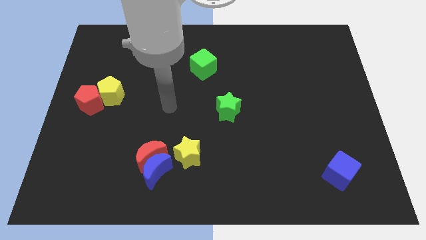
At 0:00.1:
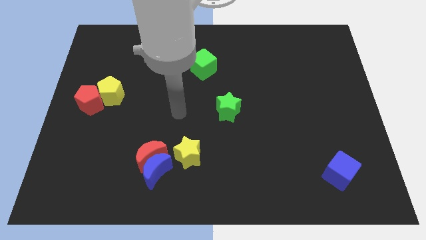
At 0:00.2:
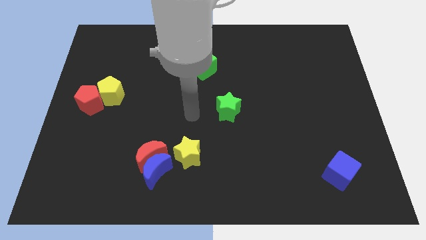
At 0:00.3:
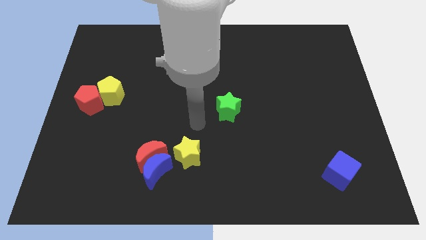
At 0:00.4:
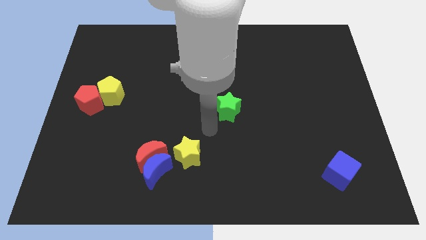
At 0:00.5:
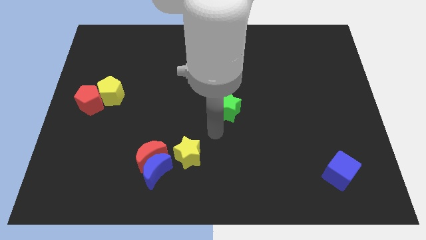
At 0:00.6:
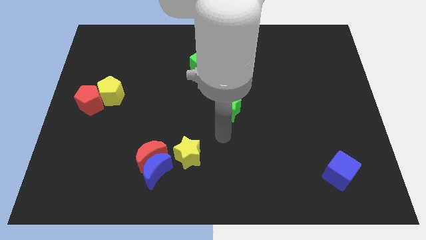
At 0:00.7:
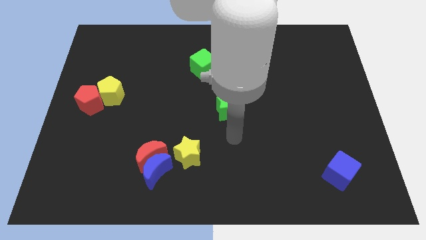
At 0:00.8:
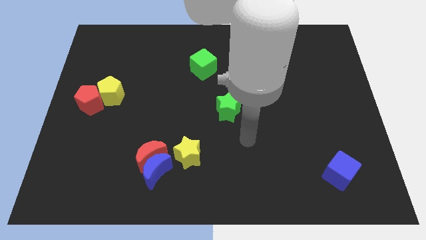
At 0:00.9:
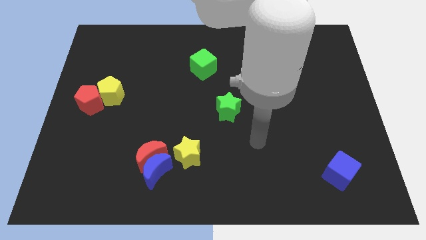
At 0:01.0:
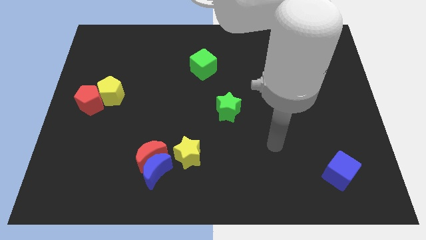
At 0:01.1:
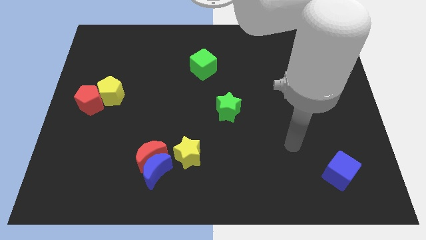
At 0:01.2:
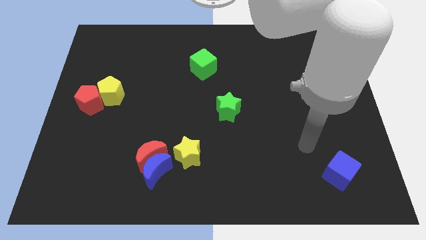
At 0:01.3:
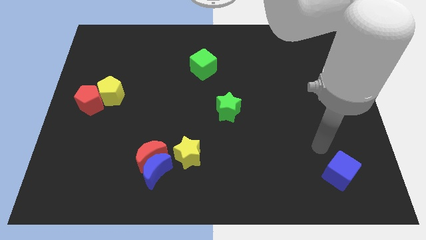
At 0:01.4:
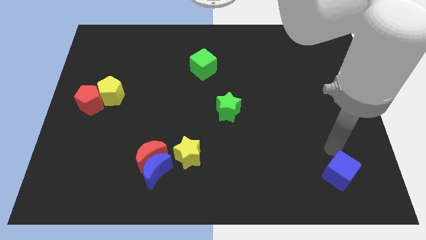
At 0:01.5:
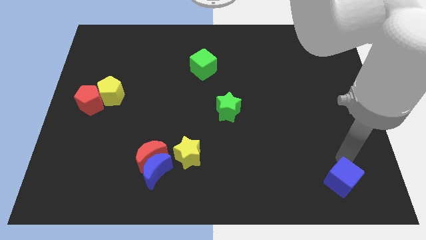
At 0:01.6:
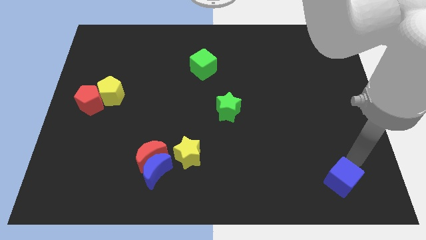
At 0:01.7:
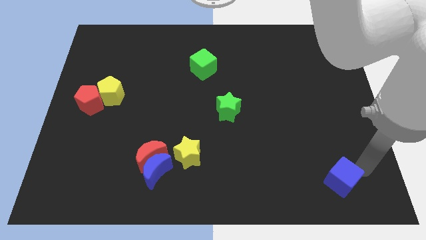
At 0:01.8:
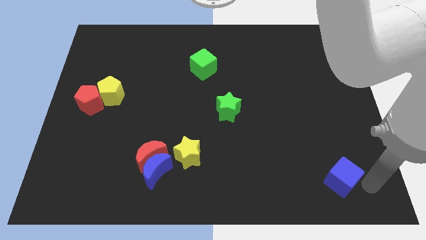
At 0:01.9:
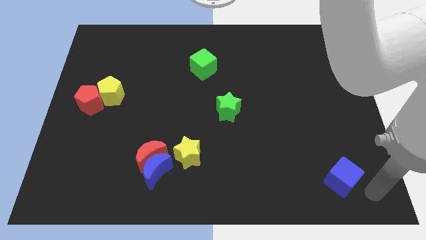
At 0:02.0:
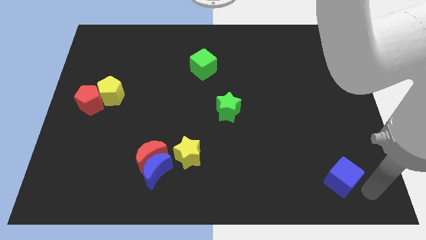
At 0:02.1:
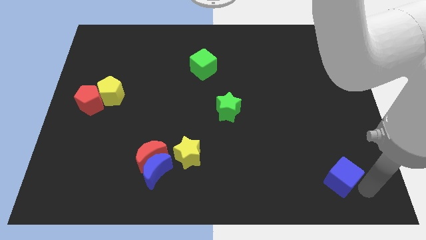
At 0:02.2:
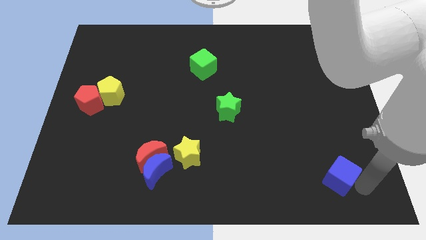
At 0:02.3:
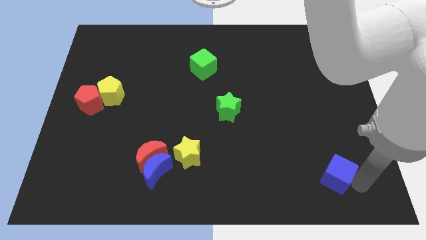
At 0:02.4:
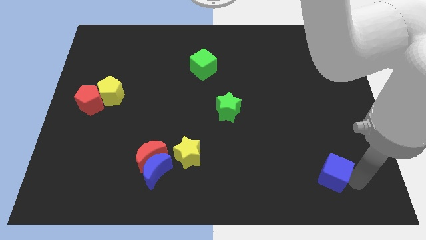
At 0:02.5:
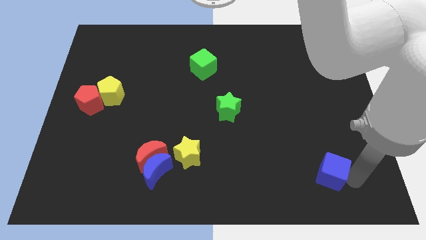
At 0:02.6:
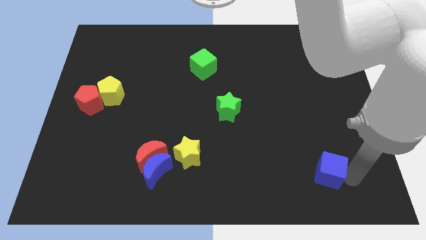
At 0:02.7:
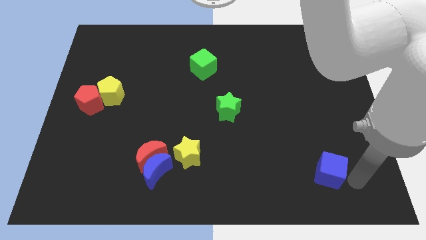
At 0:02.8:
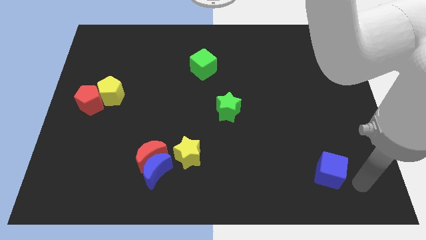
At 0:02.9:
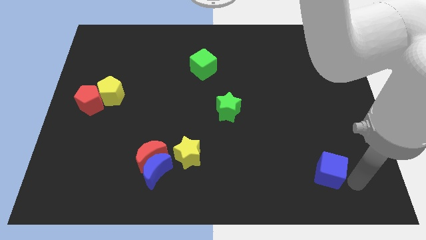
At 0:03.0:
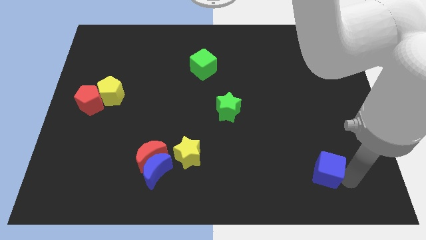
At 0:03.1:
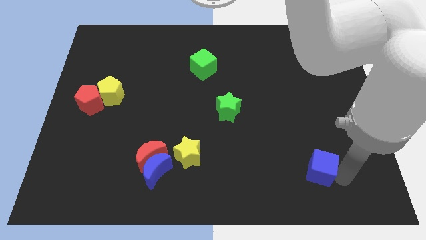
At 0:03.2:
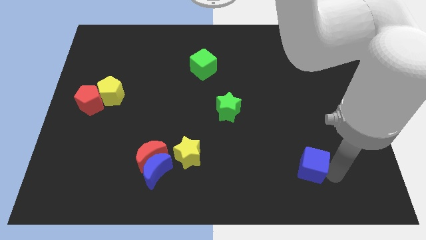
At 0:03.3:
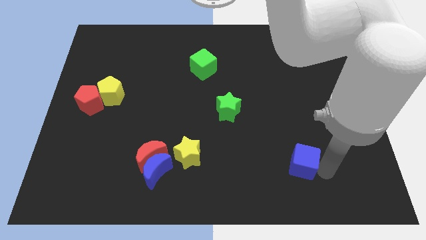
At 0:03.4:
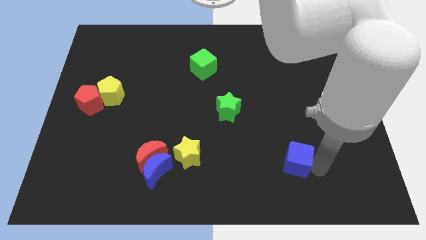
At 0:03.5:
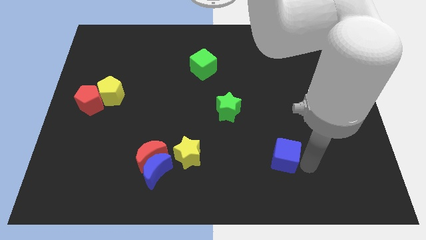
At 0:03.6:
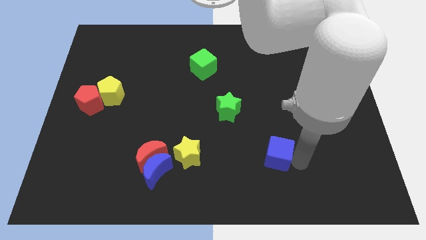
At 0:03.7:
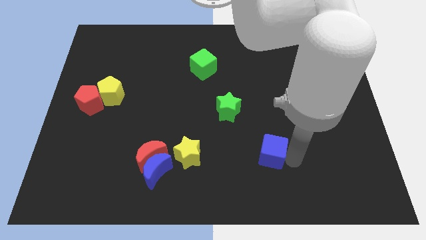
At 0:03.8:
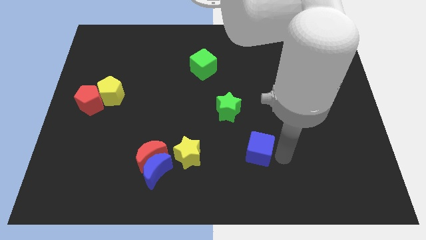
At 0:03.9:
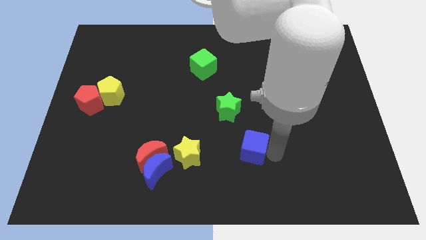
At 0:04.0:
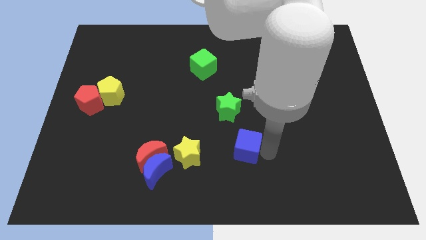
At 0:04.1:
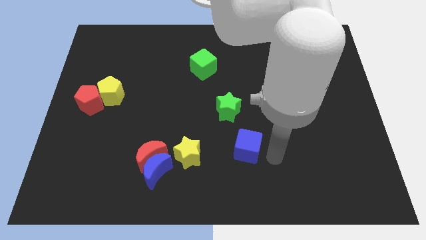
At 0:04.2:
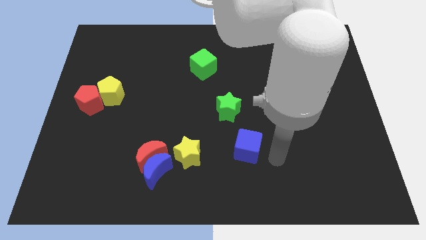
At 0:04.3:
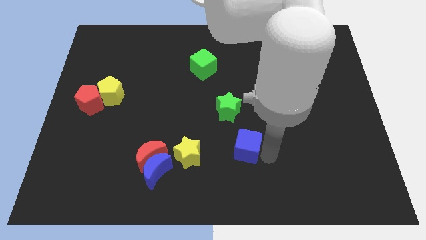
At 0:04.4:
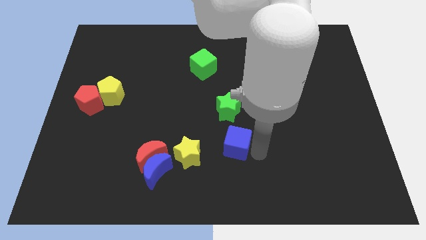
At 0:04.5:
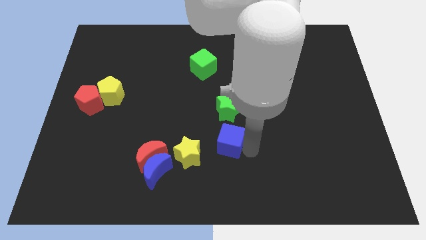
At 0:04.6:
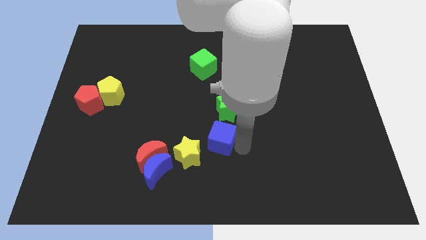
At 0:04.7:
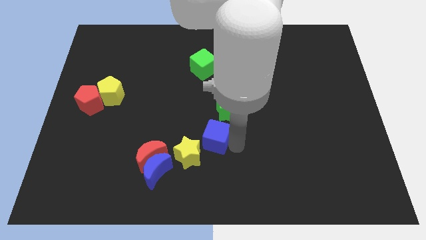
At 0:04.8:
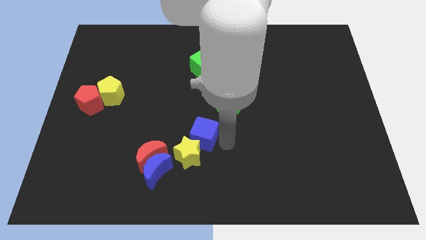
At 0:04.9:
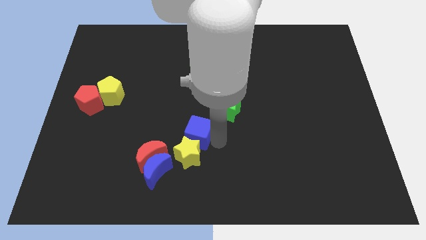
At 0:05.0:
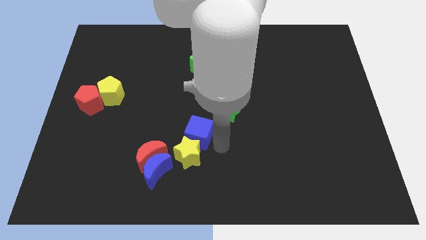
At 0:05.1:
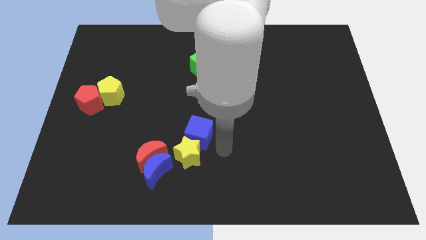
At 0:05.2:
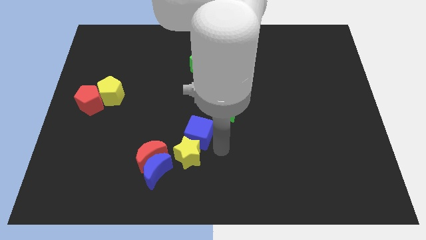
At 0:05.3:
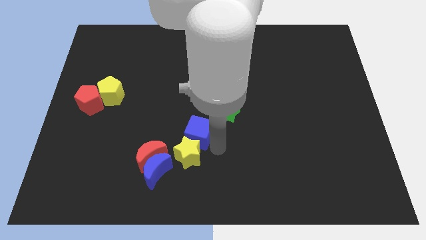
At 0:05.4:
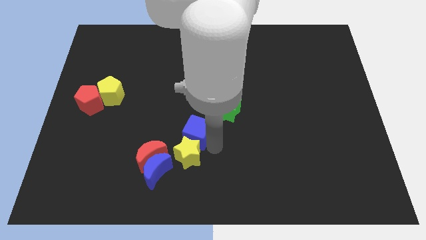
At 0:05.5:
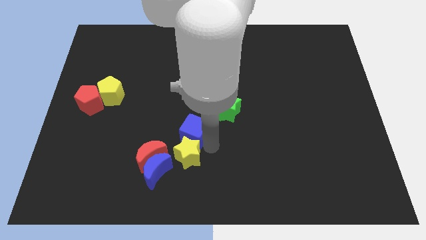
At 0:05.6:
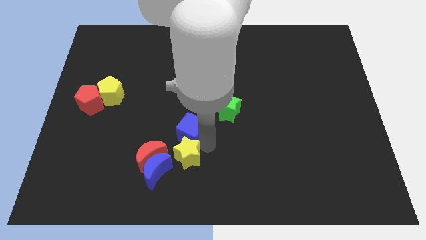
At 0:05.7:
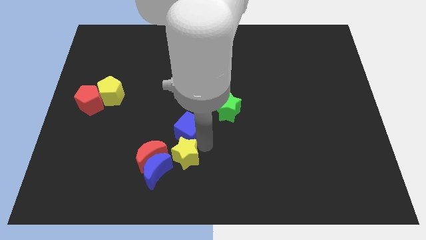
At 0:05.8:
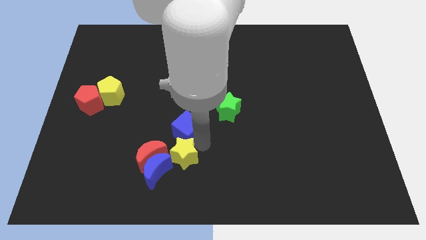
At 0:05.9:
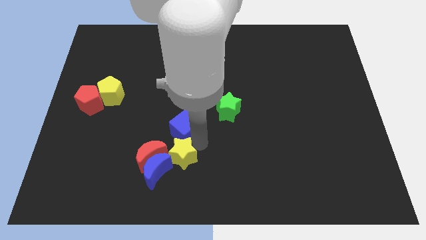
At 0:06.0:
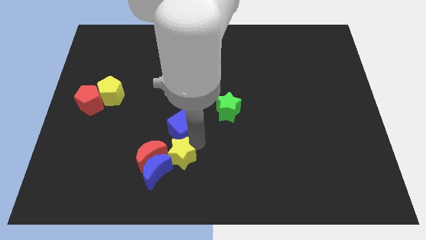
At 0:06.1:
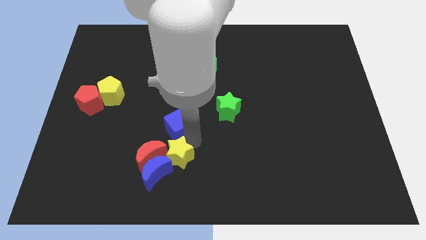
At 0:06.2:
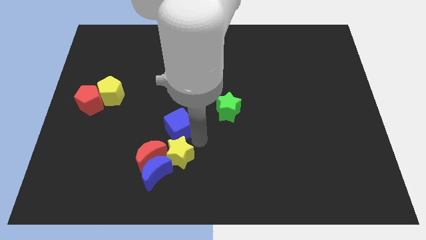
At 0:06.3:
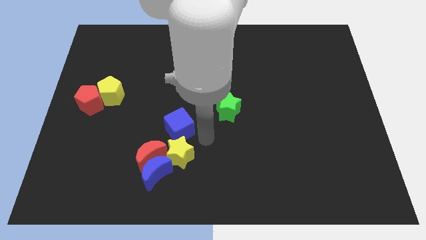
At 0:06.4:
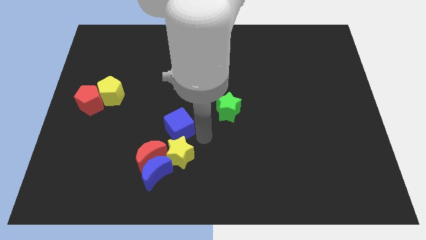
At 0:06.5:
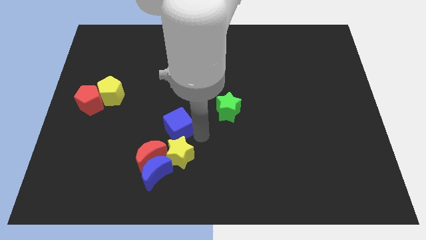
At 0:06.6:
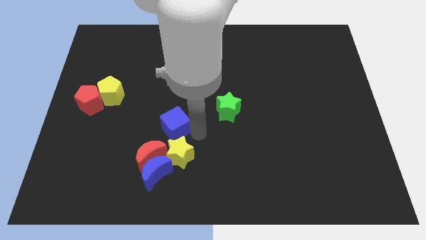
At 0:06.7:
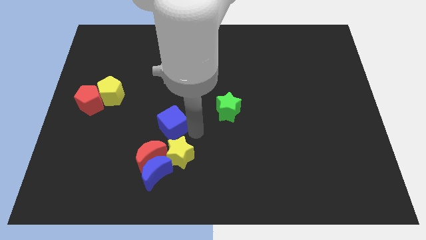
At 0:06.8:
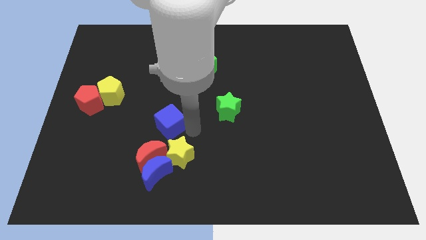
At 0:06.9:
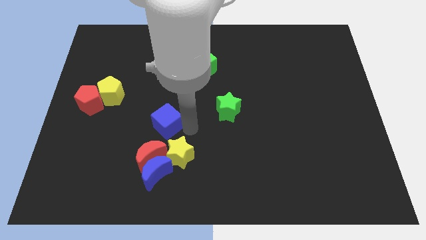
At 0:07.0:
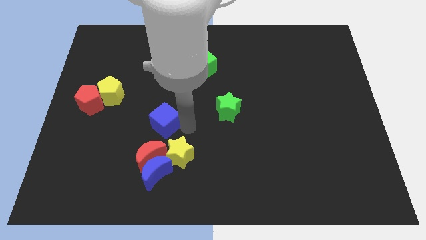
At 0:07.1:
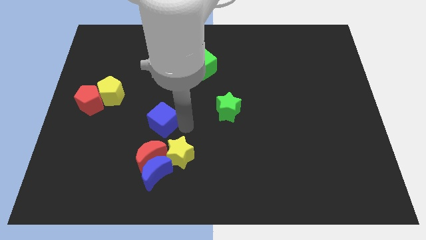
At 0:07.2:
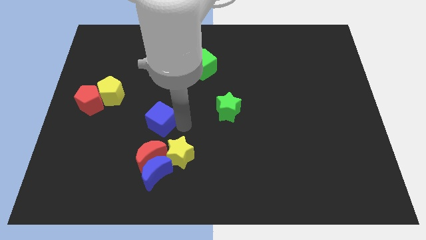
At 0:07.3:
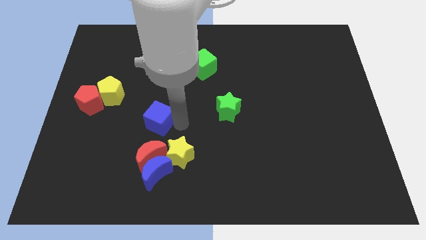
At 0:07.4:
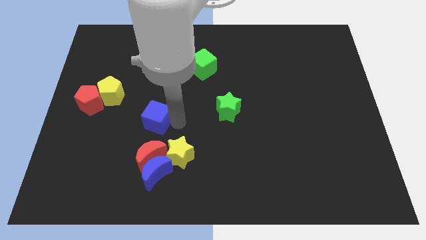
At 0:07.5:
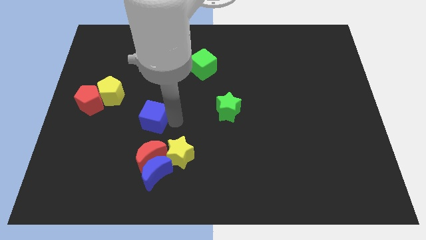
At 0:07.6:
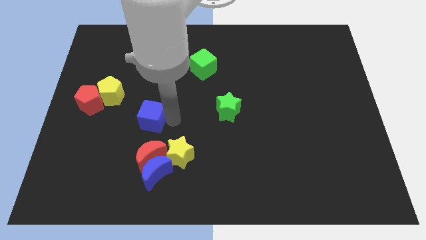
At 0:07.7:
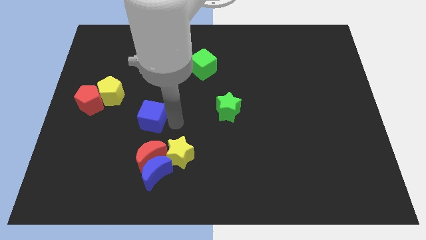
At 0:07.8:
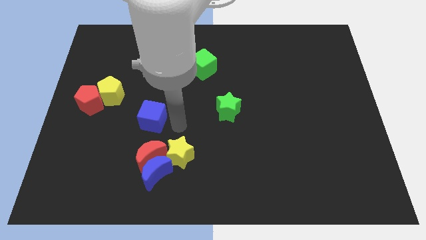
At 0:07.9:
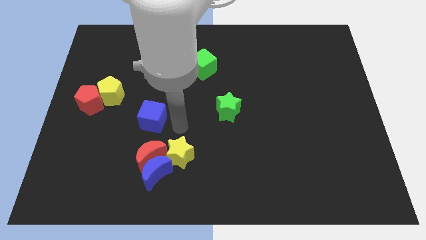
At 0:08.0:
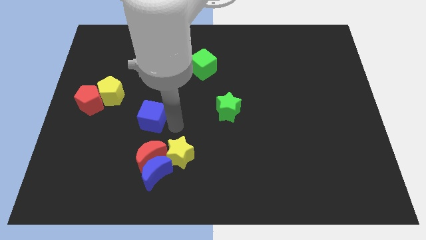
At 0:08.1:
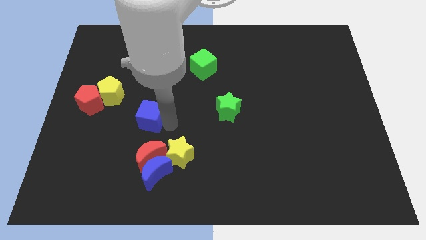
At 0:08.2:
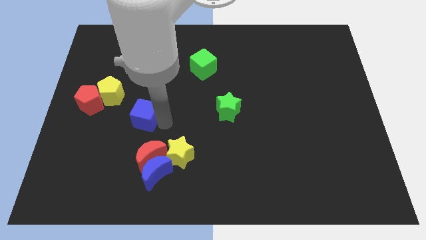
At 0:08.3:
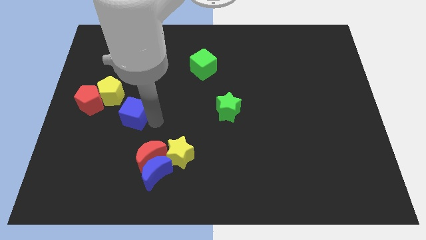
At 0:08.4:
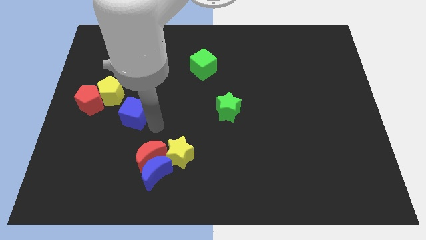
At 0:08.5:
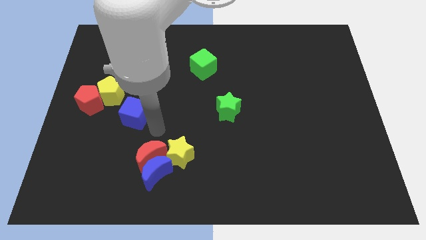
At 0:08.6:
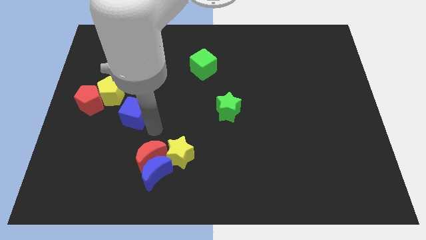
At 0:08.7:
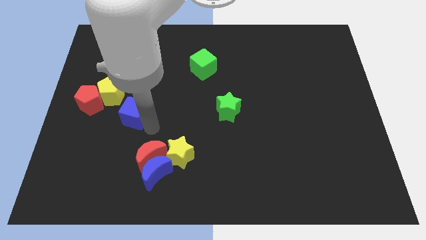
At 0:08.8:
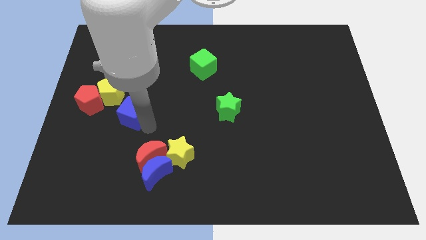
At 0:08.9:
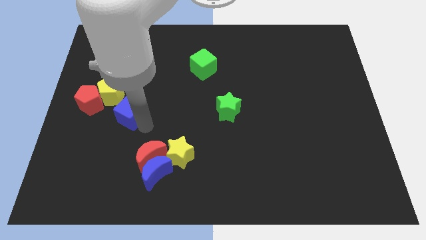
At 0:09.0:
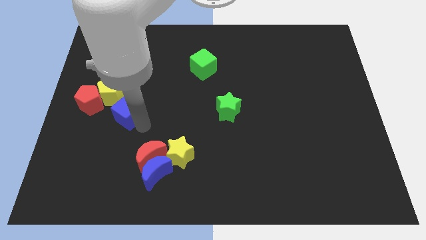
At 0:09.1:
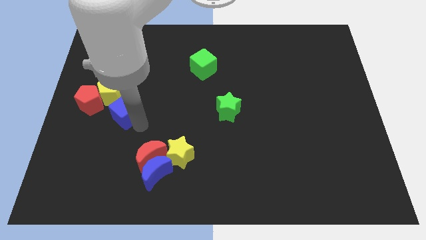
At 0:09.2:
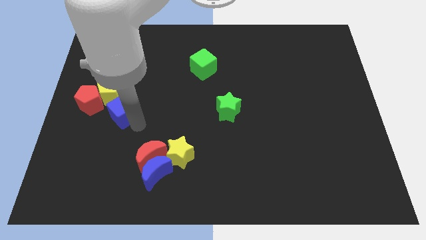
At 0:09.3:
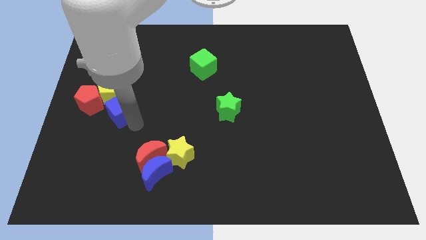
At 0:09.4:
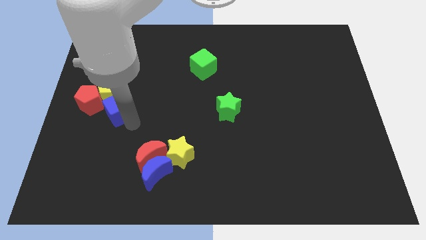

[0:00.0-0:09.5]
push the blue cube to the yellow pentagon
